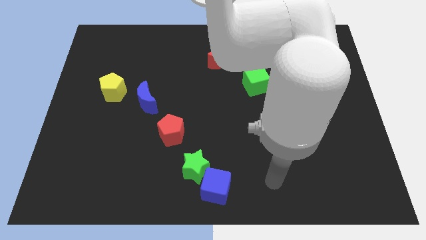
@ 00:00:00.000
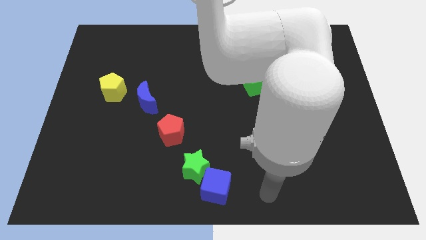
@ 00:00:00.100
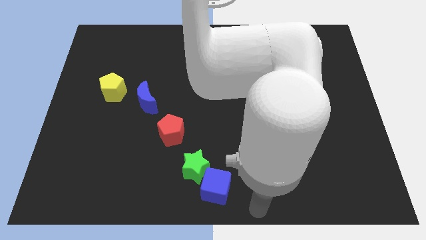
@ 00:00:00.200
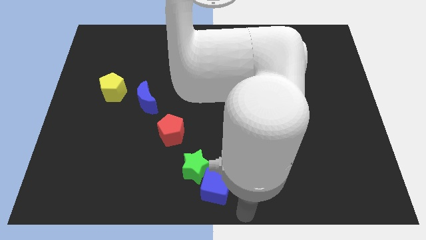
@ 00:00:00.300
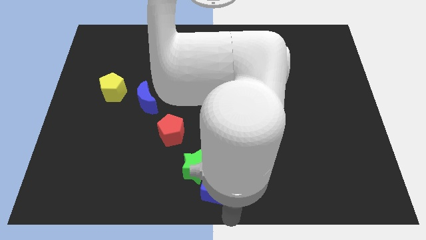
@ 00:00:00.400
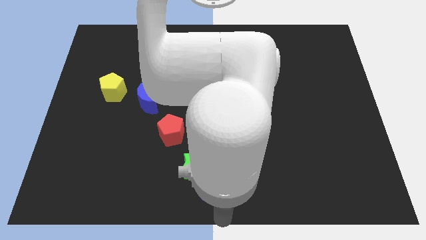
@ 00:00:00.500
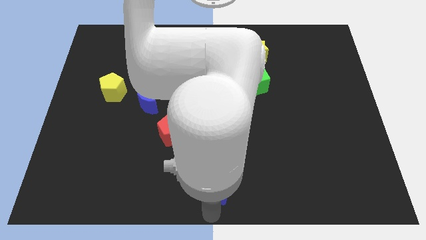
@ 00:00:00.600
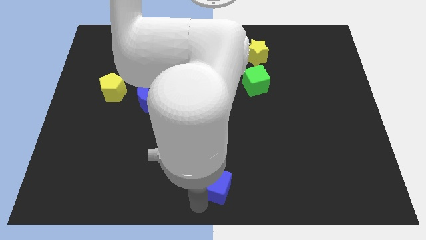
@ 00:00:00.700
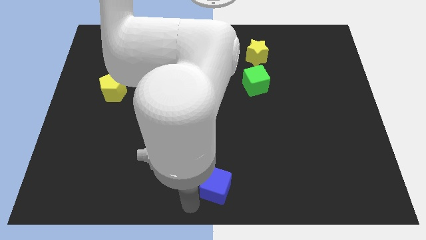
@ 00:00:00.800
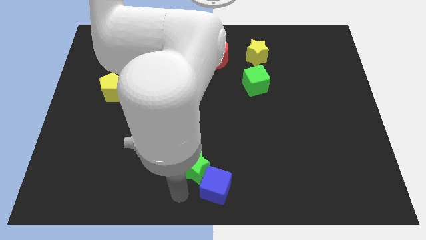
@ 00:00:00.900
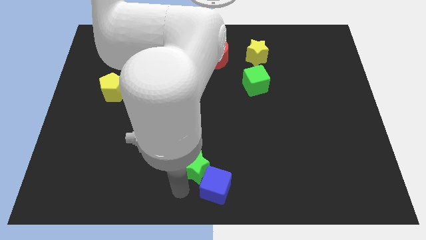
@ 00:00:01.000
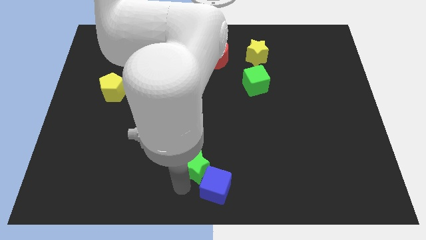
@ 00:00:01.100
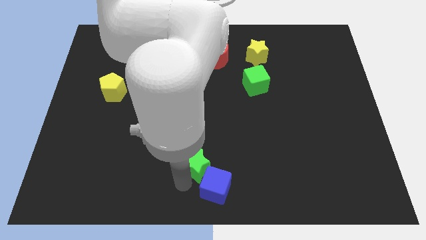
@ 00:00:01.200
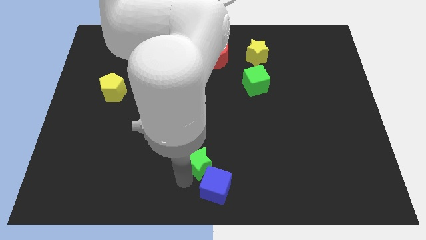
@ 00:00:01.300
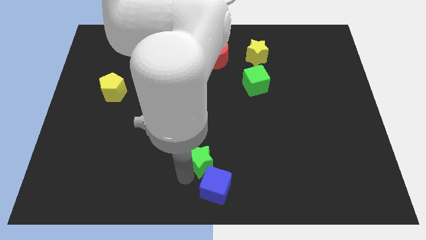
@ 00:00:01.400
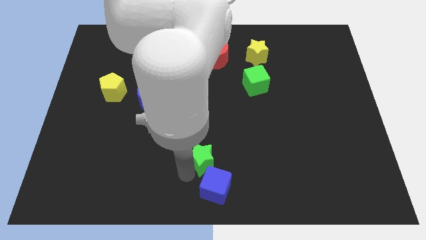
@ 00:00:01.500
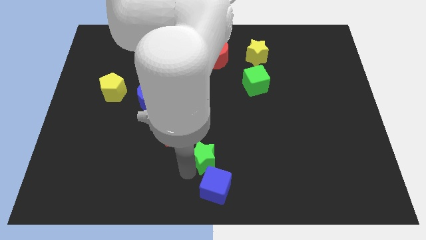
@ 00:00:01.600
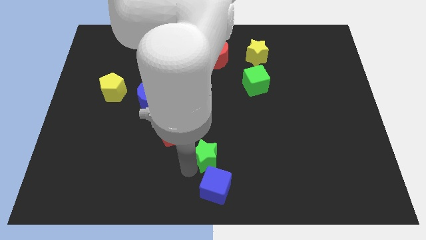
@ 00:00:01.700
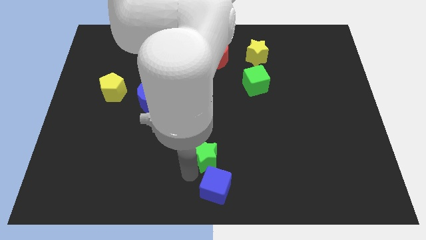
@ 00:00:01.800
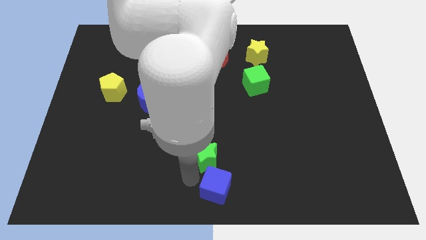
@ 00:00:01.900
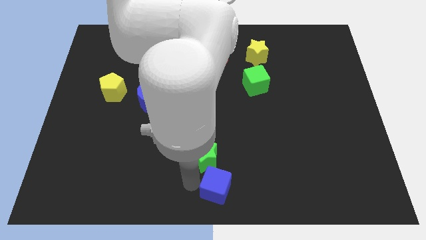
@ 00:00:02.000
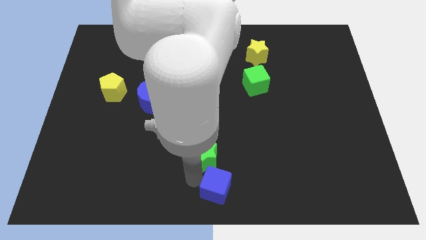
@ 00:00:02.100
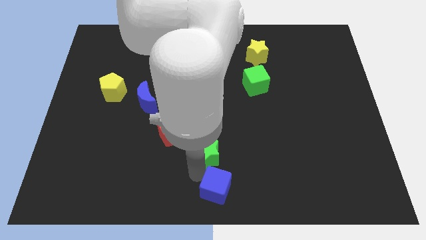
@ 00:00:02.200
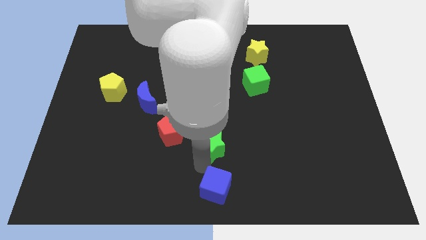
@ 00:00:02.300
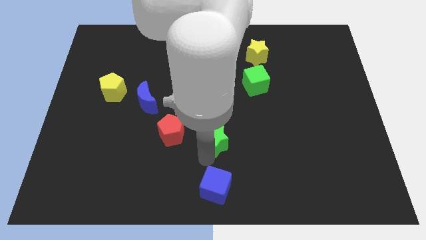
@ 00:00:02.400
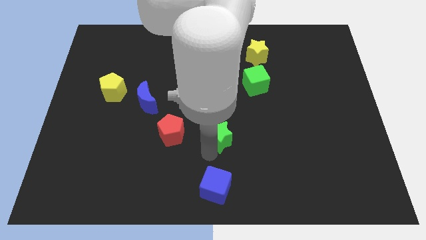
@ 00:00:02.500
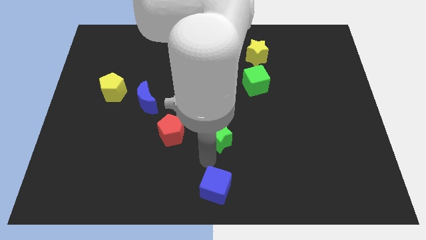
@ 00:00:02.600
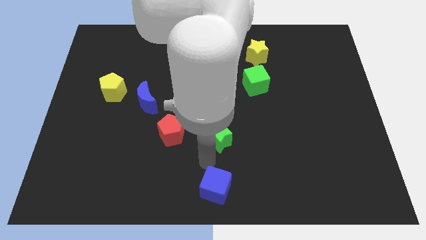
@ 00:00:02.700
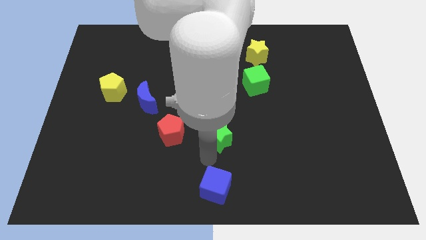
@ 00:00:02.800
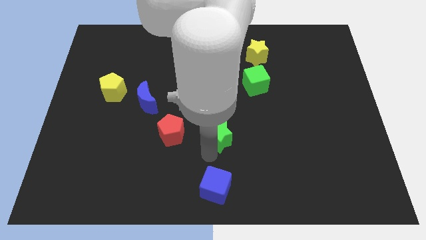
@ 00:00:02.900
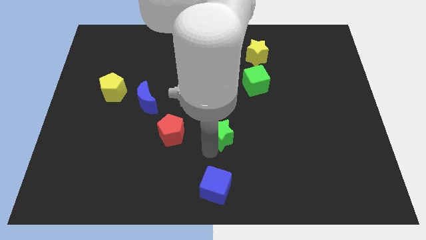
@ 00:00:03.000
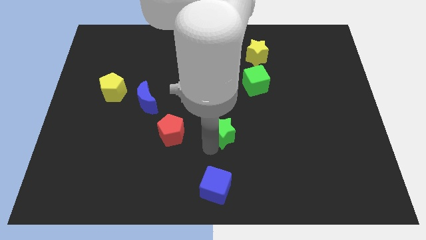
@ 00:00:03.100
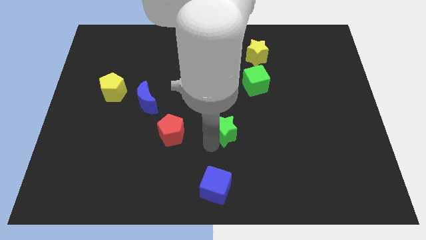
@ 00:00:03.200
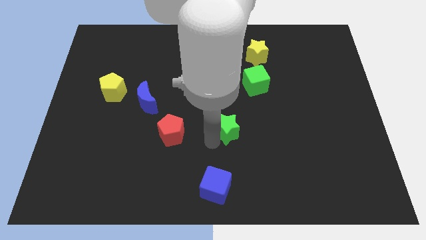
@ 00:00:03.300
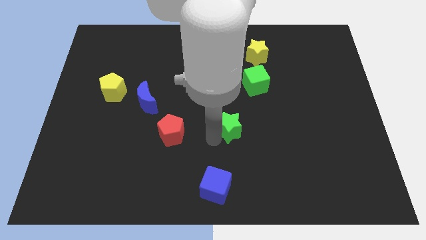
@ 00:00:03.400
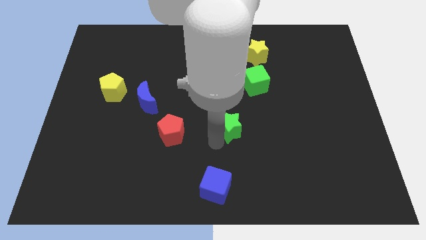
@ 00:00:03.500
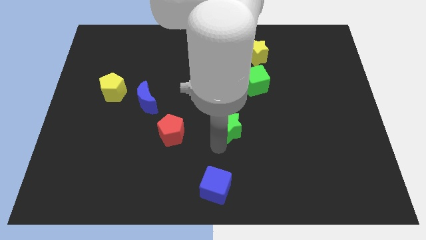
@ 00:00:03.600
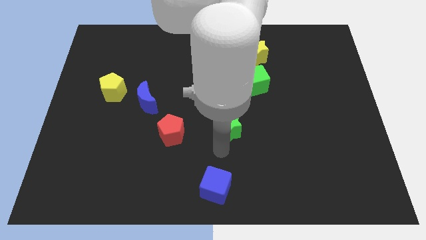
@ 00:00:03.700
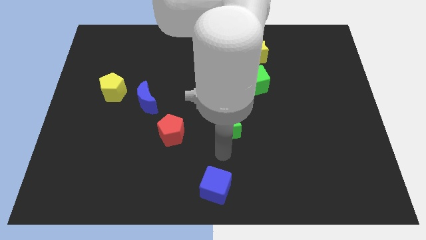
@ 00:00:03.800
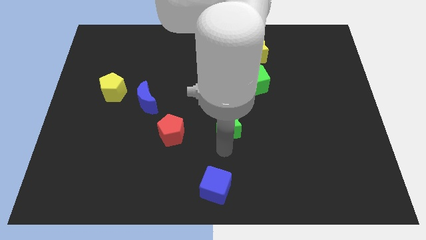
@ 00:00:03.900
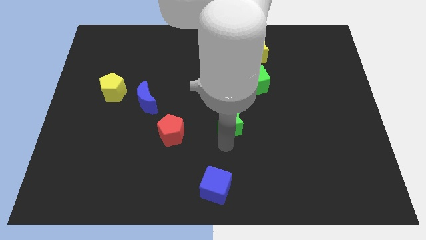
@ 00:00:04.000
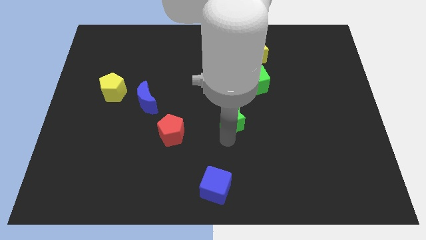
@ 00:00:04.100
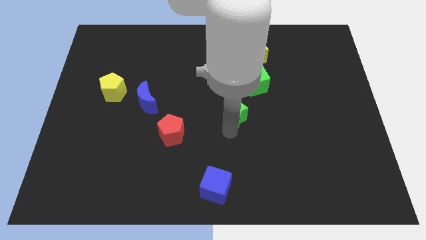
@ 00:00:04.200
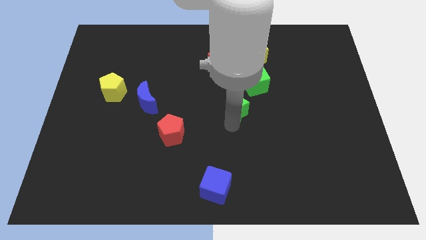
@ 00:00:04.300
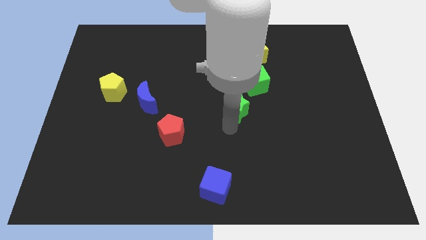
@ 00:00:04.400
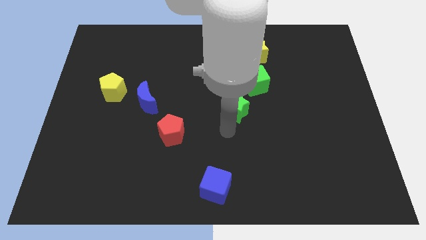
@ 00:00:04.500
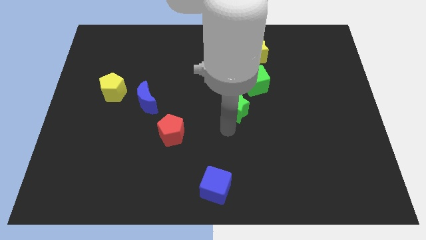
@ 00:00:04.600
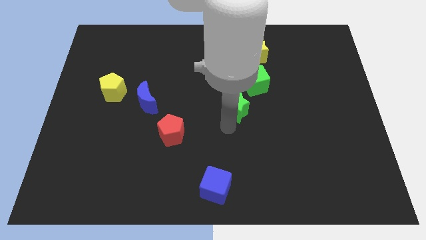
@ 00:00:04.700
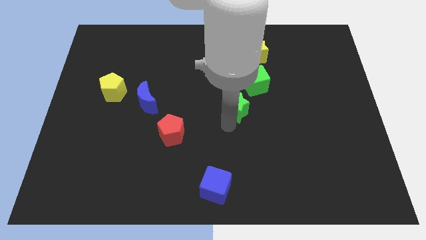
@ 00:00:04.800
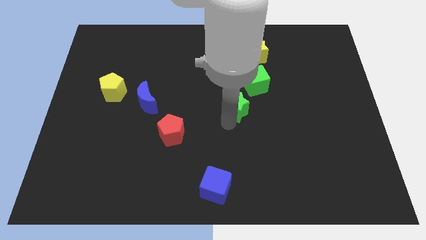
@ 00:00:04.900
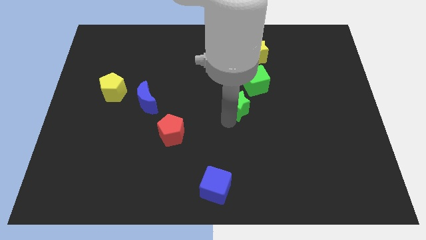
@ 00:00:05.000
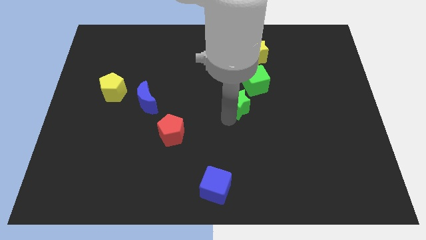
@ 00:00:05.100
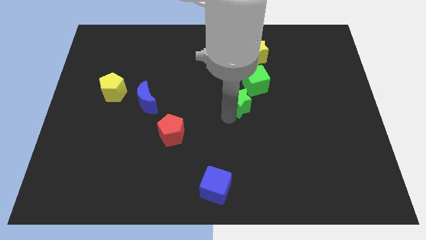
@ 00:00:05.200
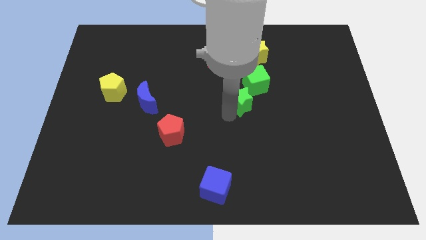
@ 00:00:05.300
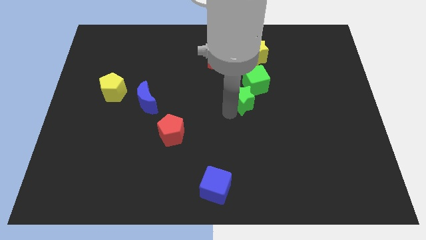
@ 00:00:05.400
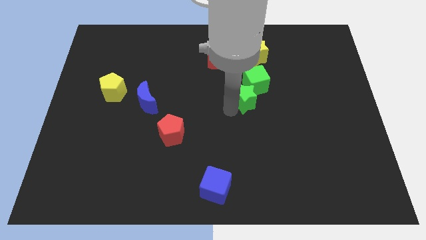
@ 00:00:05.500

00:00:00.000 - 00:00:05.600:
push the green star to the green cube
